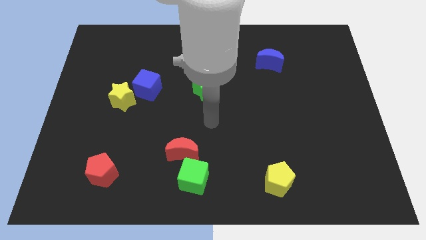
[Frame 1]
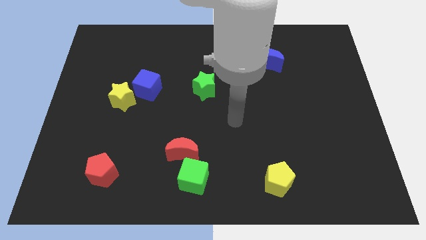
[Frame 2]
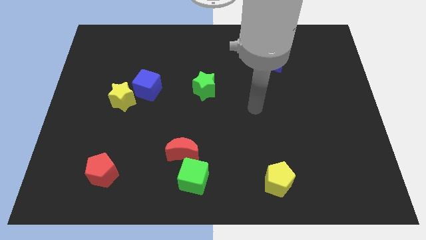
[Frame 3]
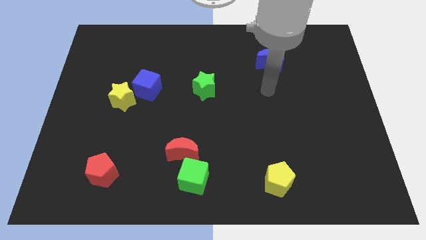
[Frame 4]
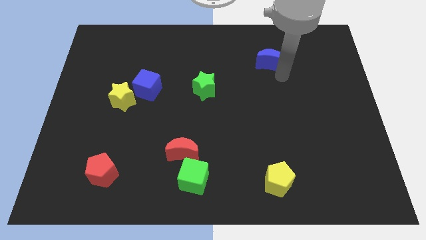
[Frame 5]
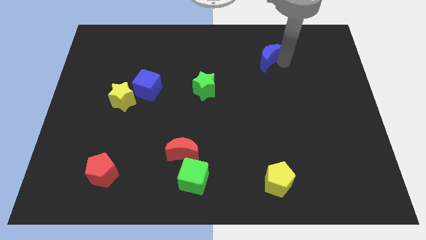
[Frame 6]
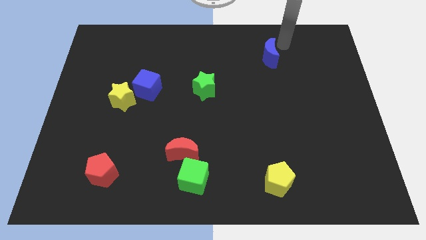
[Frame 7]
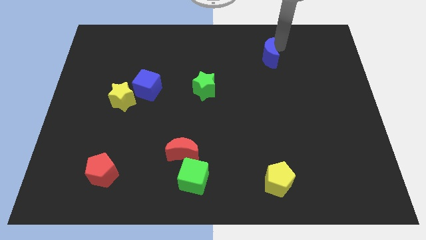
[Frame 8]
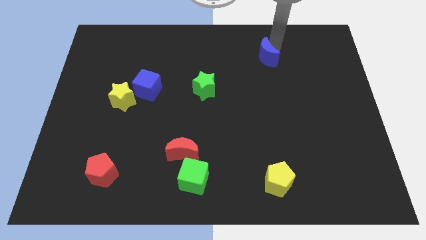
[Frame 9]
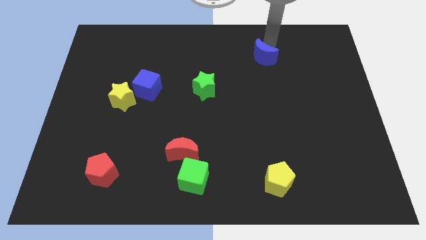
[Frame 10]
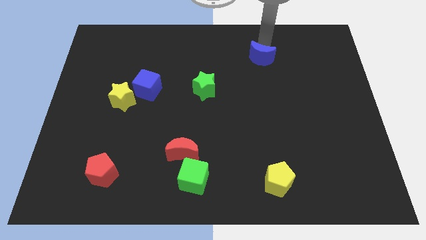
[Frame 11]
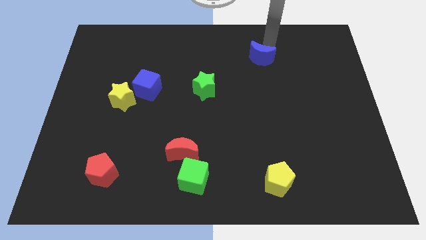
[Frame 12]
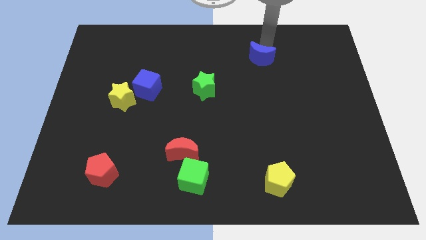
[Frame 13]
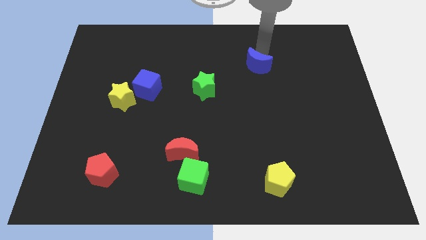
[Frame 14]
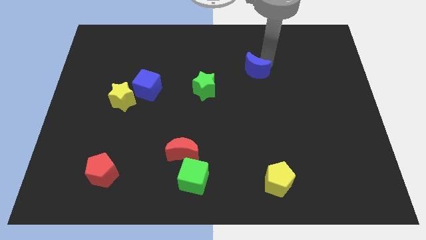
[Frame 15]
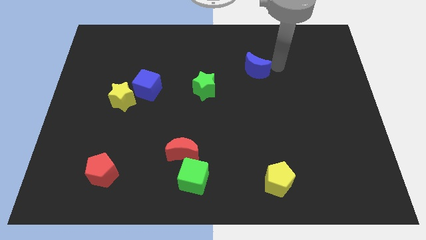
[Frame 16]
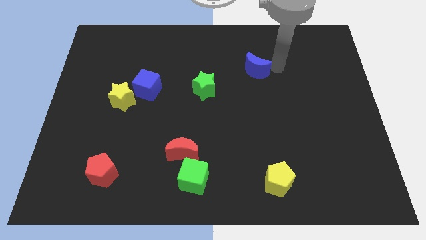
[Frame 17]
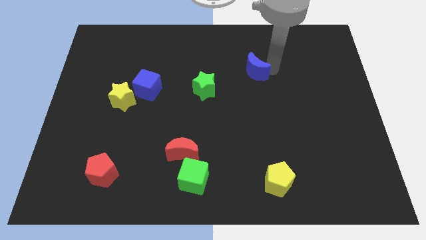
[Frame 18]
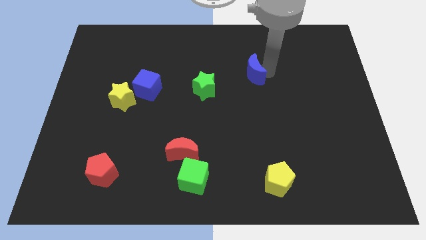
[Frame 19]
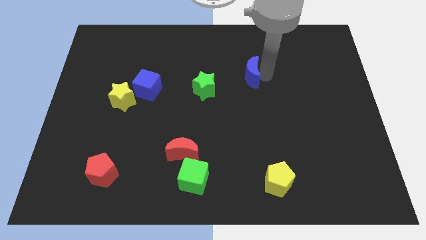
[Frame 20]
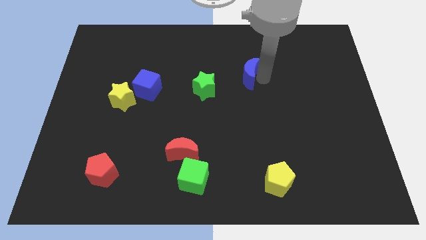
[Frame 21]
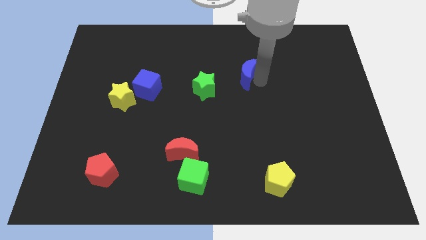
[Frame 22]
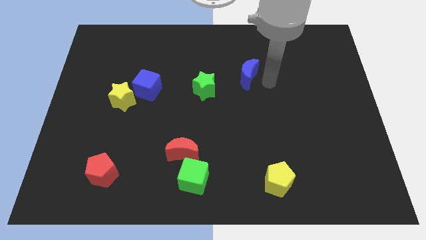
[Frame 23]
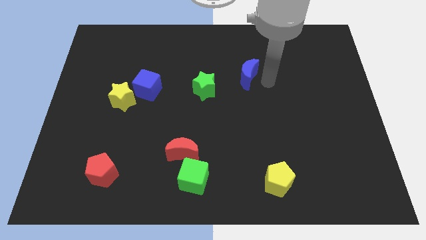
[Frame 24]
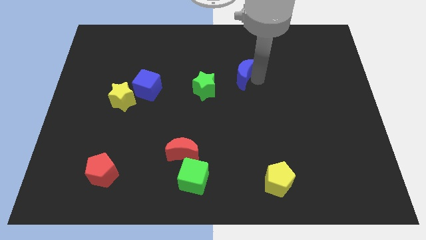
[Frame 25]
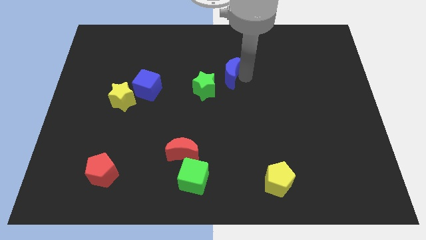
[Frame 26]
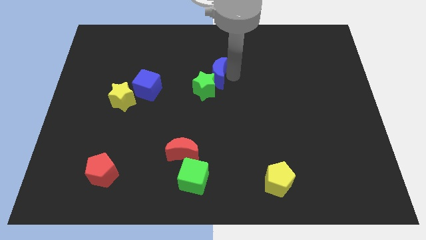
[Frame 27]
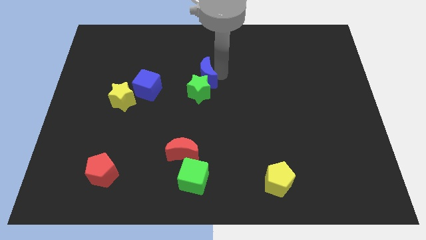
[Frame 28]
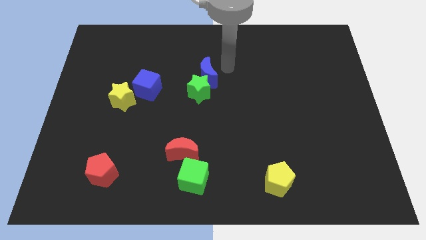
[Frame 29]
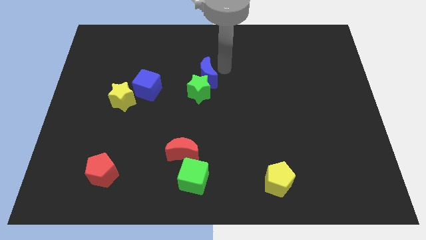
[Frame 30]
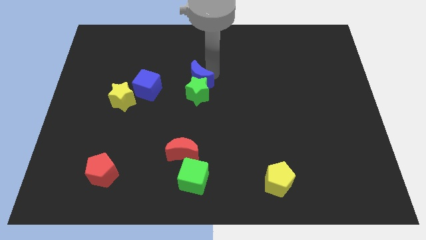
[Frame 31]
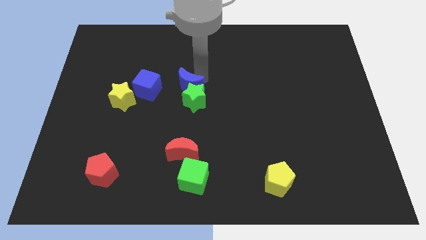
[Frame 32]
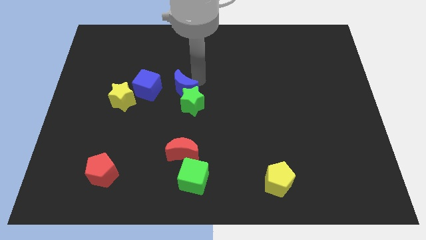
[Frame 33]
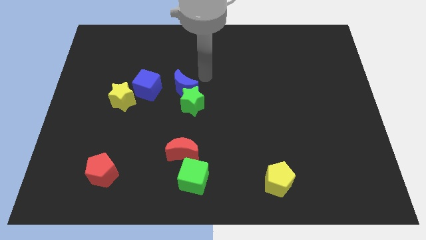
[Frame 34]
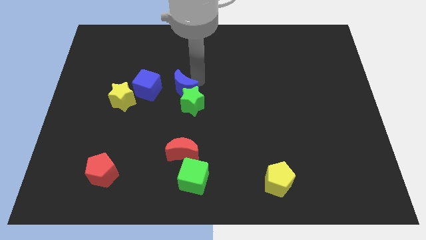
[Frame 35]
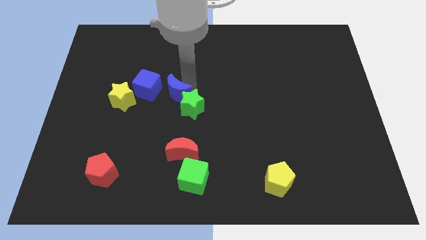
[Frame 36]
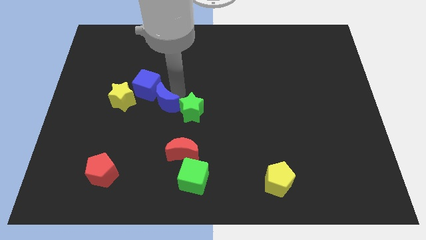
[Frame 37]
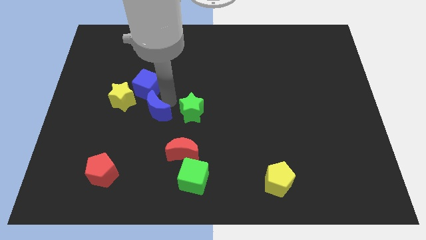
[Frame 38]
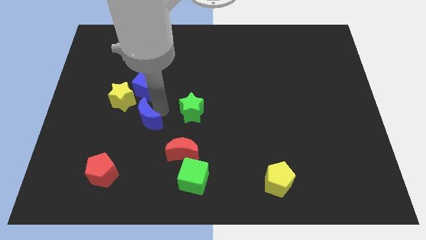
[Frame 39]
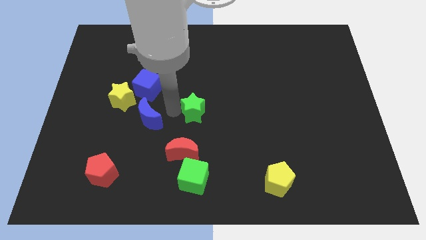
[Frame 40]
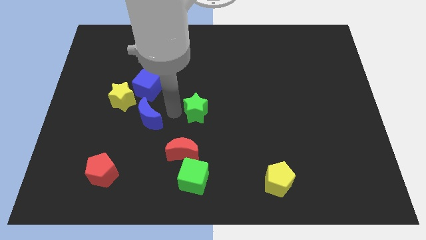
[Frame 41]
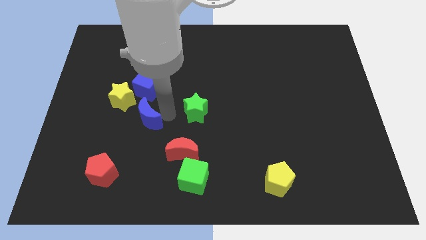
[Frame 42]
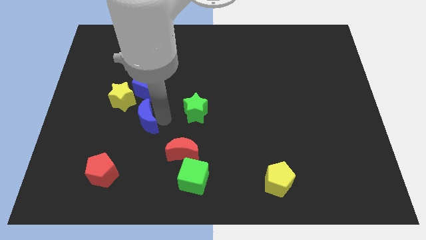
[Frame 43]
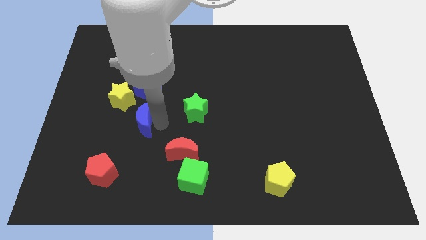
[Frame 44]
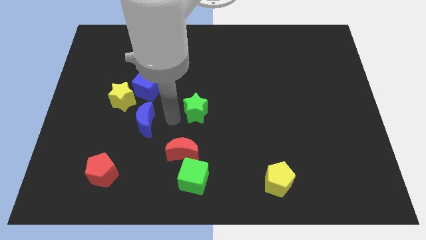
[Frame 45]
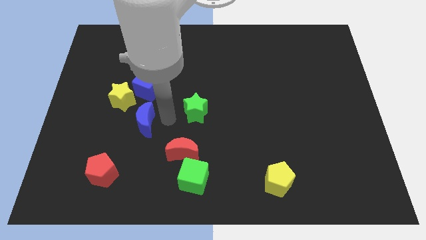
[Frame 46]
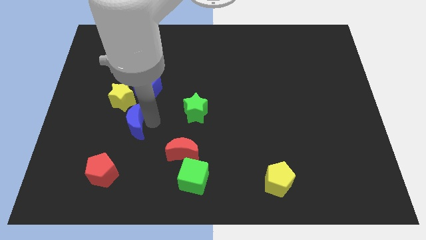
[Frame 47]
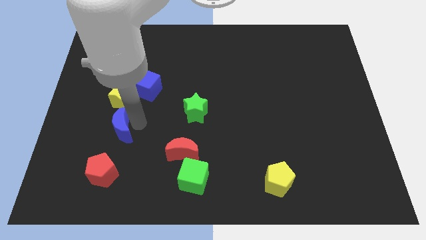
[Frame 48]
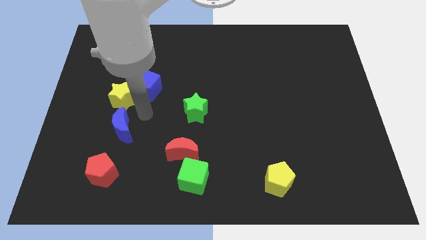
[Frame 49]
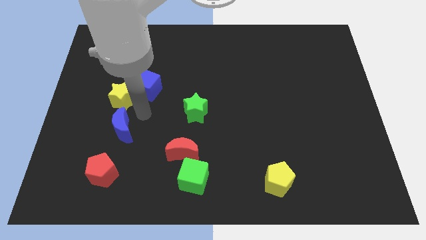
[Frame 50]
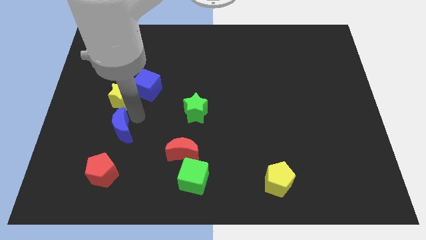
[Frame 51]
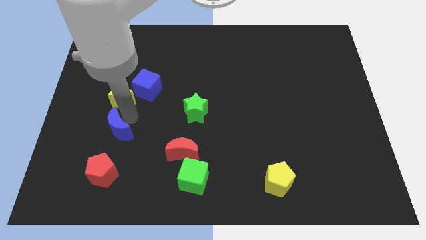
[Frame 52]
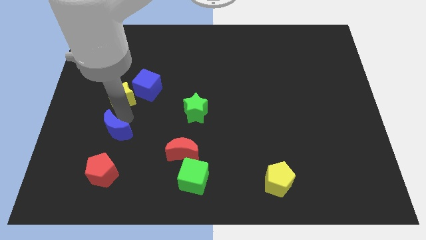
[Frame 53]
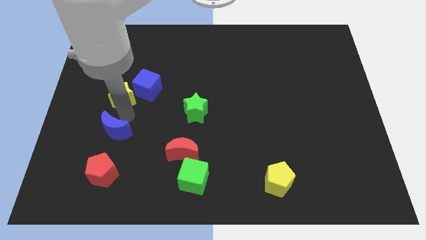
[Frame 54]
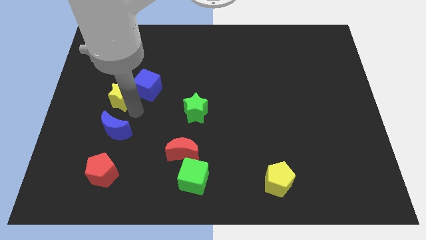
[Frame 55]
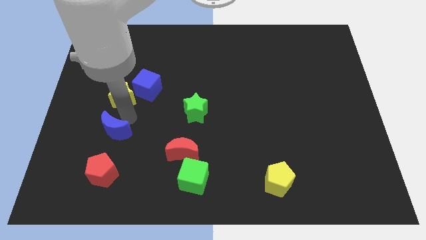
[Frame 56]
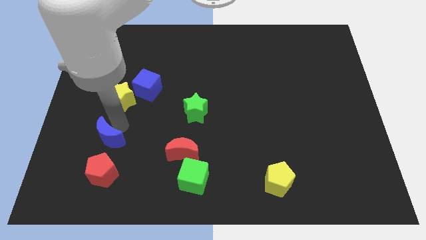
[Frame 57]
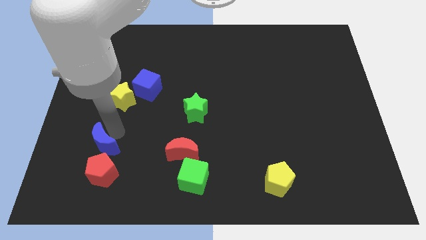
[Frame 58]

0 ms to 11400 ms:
move the blue moon to the top left of the red pentagon

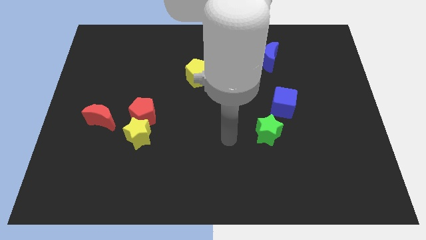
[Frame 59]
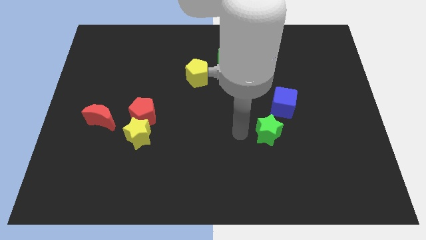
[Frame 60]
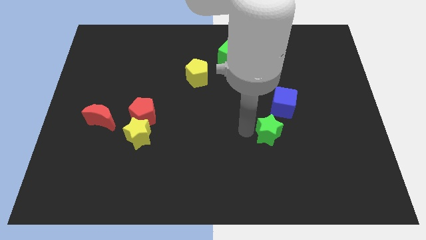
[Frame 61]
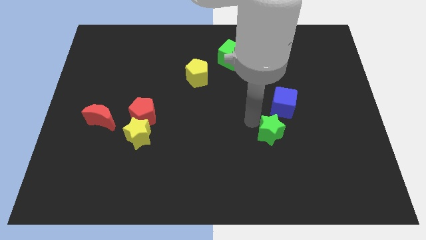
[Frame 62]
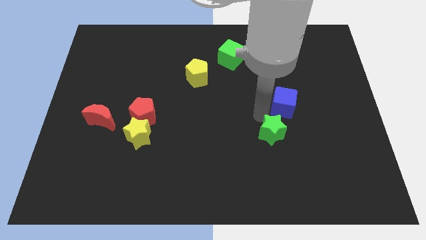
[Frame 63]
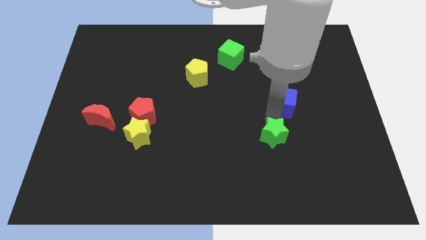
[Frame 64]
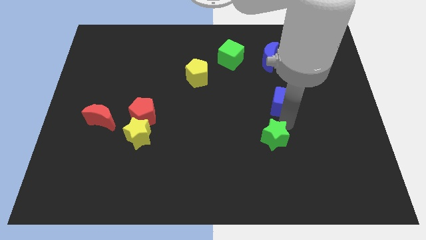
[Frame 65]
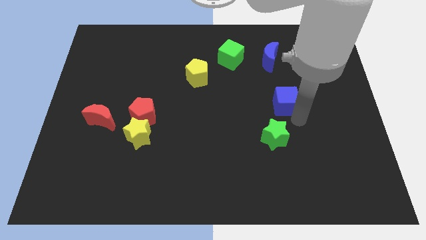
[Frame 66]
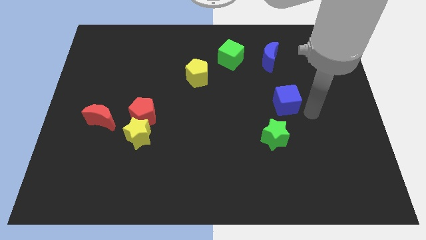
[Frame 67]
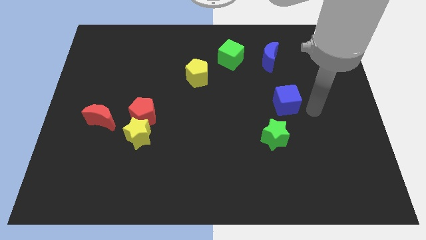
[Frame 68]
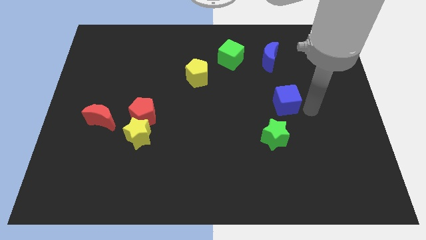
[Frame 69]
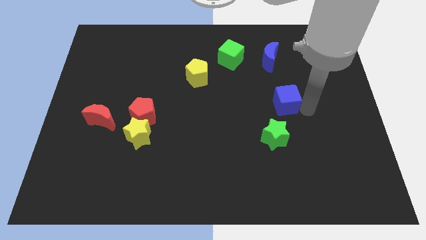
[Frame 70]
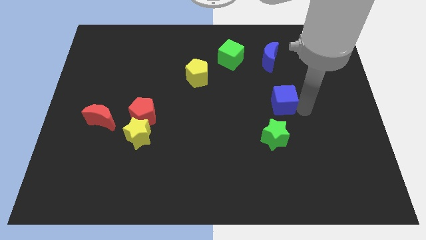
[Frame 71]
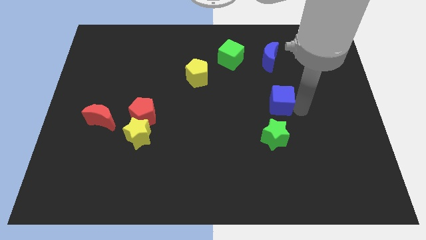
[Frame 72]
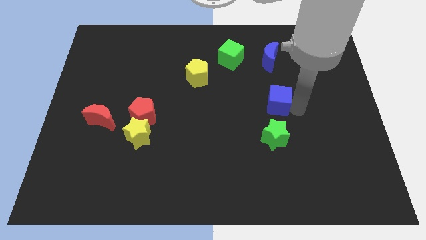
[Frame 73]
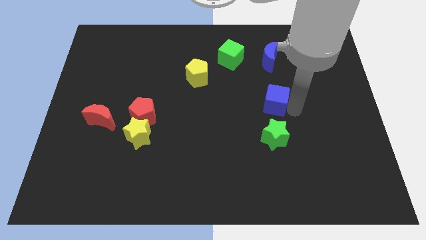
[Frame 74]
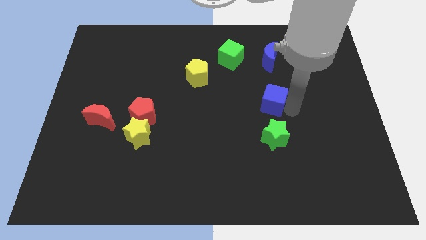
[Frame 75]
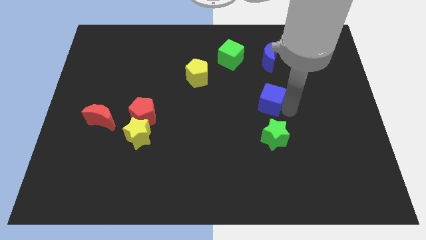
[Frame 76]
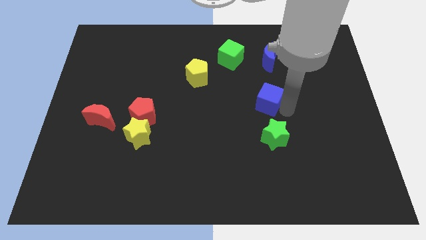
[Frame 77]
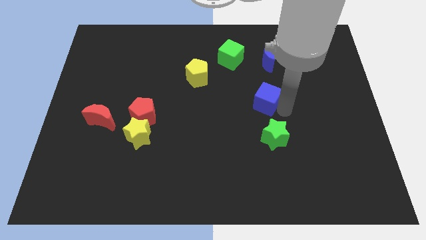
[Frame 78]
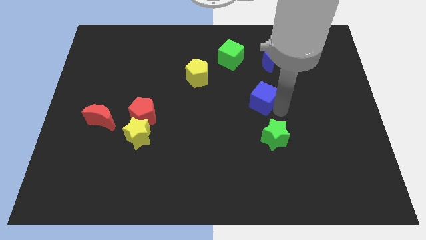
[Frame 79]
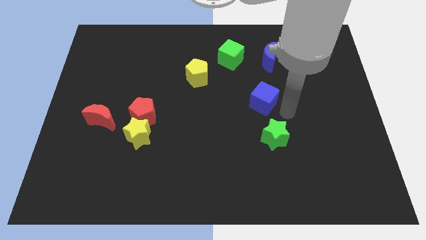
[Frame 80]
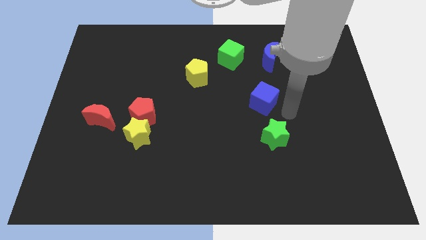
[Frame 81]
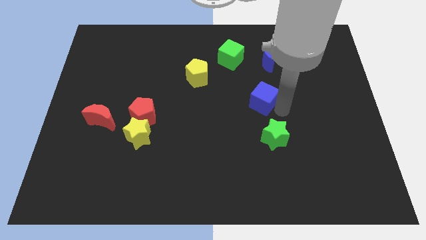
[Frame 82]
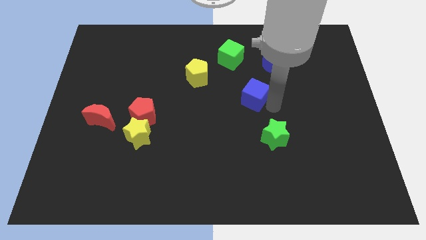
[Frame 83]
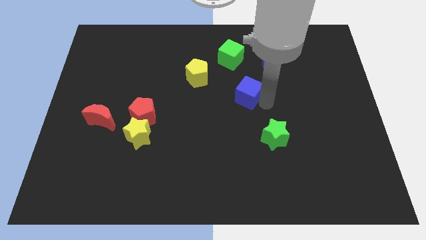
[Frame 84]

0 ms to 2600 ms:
slide the blue cube to the bottom side of the green cube
